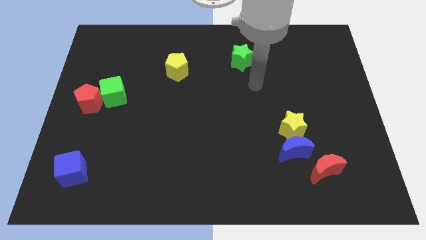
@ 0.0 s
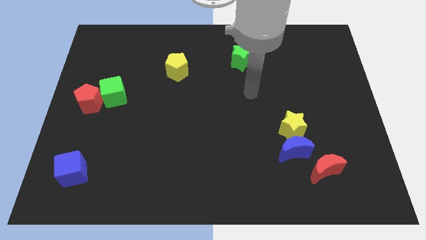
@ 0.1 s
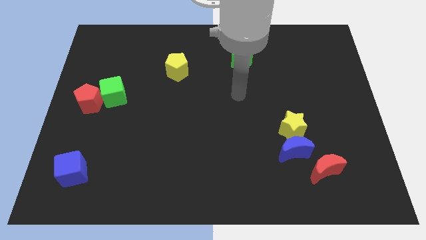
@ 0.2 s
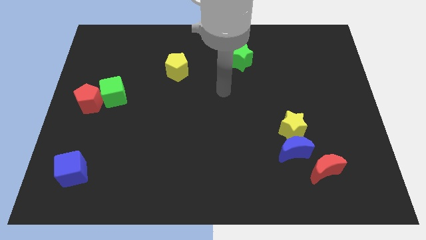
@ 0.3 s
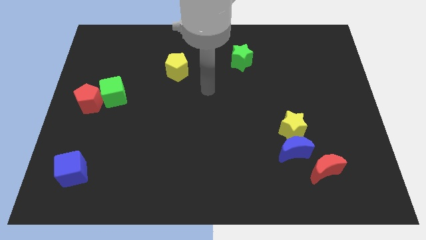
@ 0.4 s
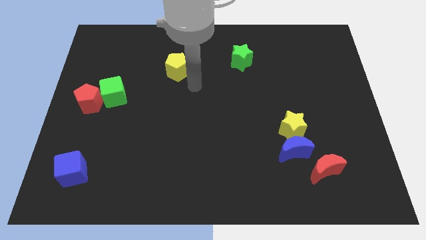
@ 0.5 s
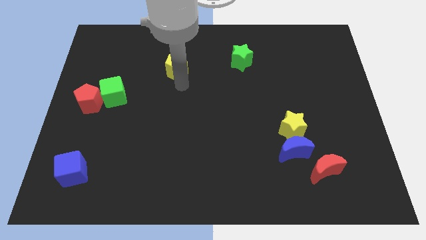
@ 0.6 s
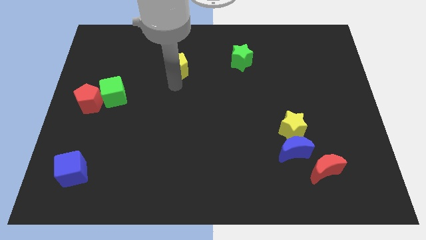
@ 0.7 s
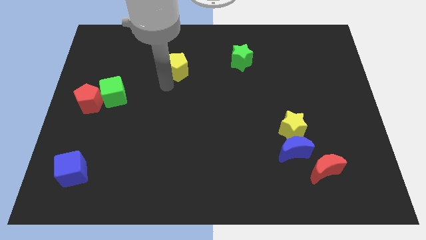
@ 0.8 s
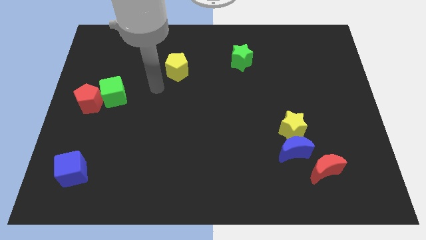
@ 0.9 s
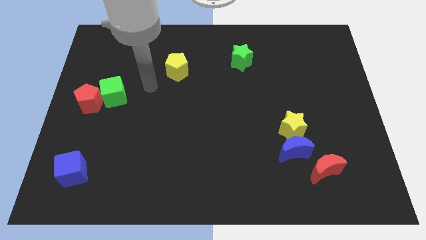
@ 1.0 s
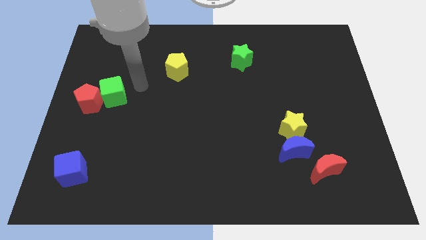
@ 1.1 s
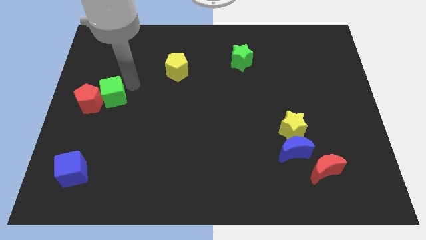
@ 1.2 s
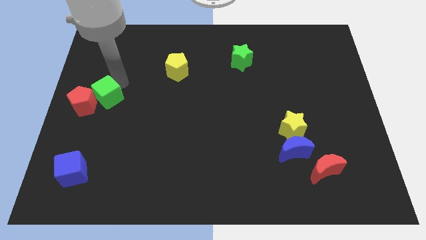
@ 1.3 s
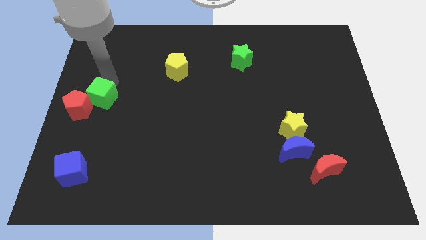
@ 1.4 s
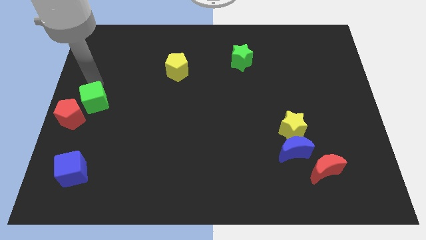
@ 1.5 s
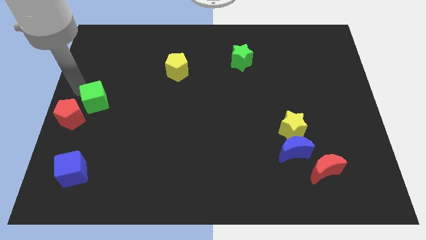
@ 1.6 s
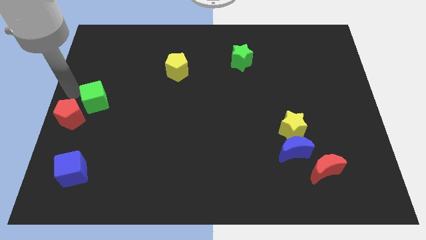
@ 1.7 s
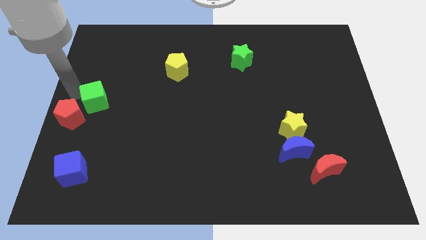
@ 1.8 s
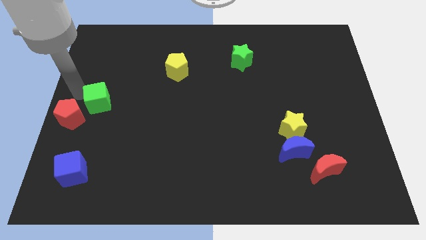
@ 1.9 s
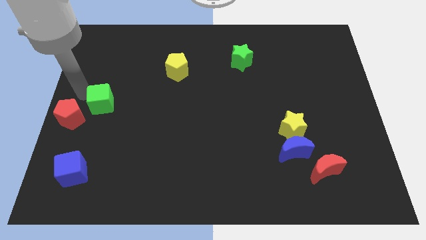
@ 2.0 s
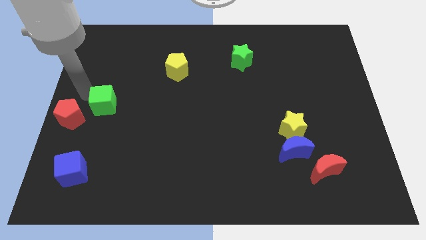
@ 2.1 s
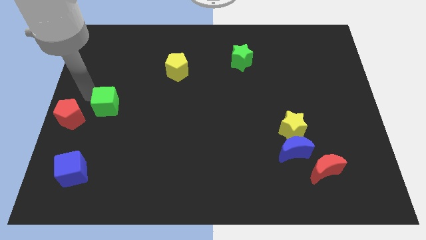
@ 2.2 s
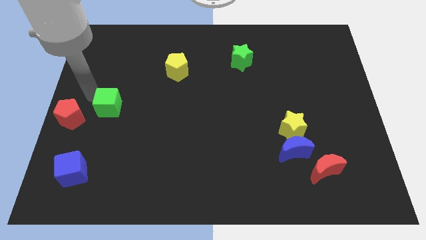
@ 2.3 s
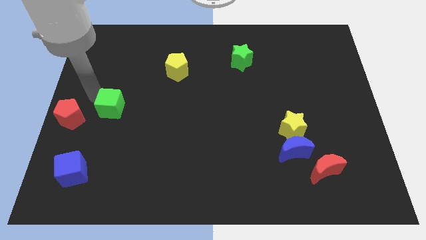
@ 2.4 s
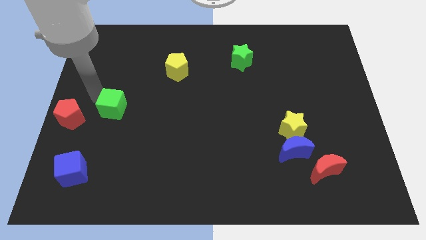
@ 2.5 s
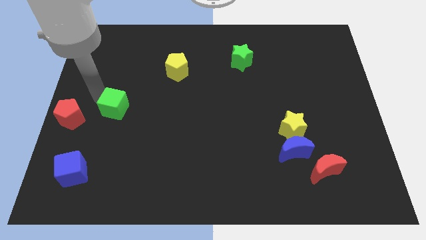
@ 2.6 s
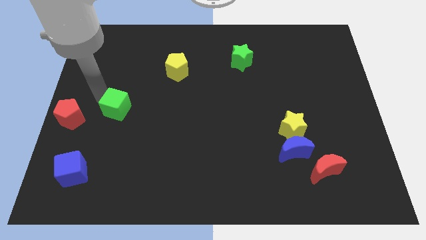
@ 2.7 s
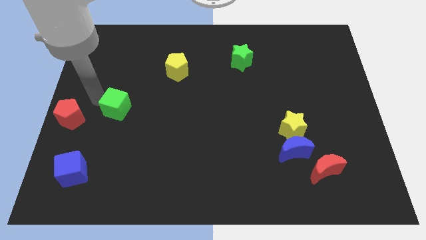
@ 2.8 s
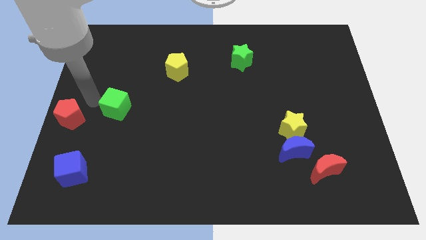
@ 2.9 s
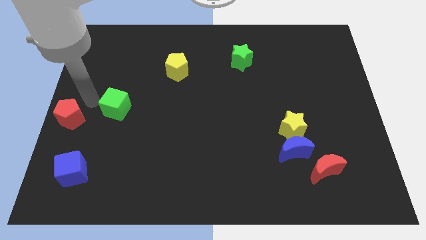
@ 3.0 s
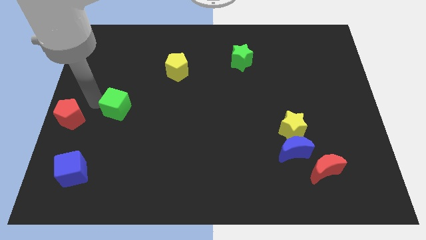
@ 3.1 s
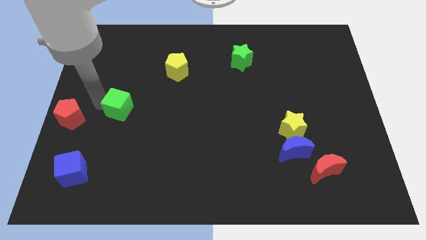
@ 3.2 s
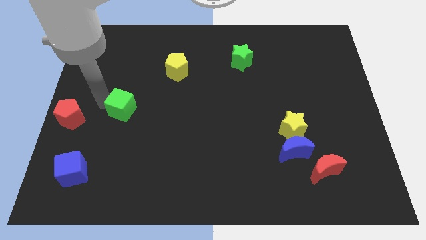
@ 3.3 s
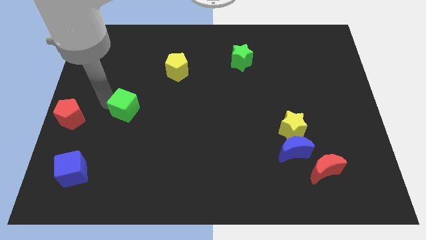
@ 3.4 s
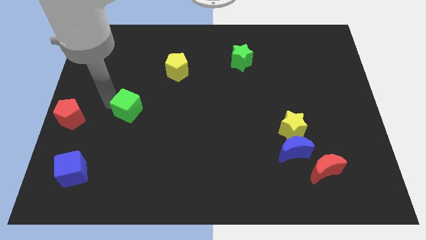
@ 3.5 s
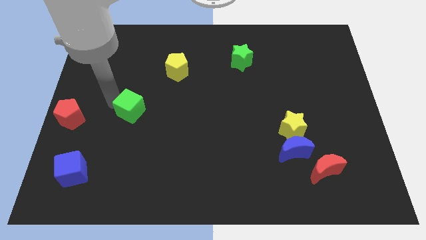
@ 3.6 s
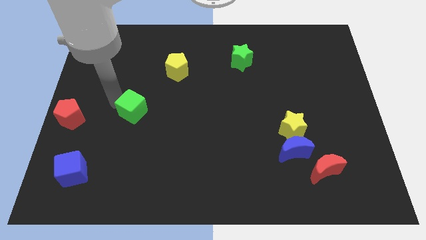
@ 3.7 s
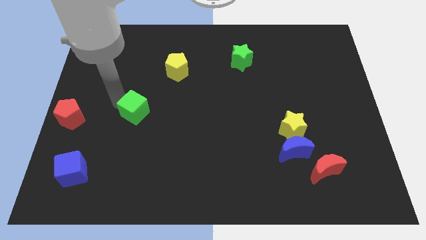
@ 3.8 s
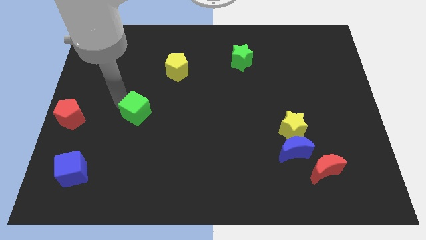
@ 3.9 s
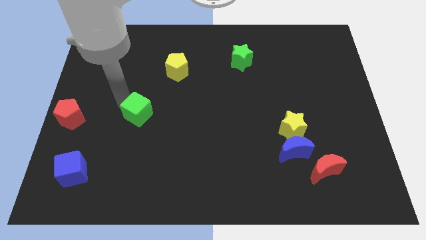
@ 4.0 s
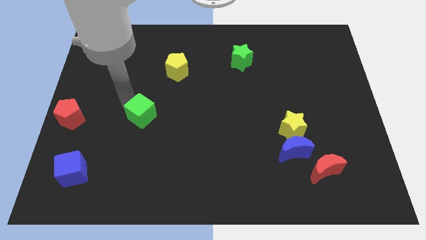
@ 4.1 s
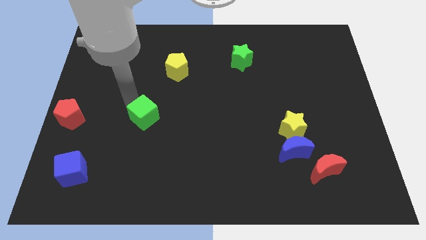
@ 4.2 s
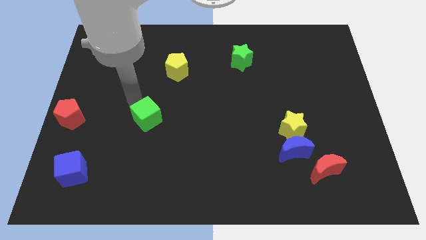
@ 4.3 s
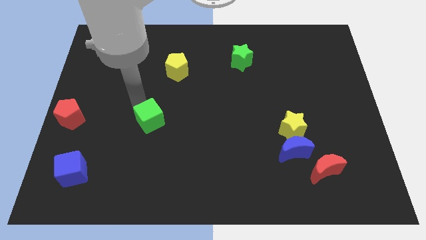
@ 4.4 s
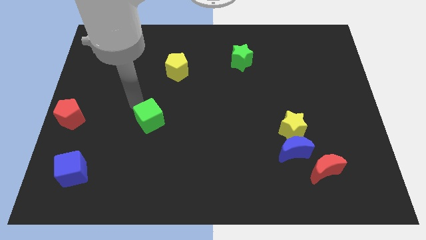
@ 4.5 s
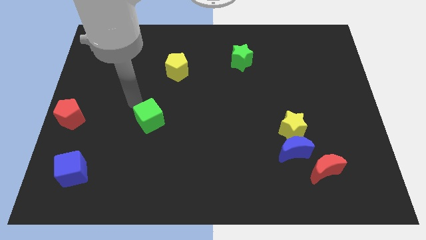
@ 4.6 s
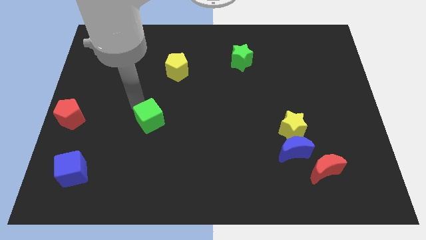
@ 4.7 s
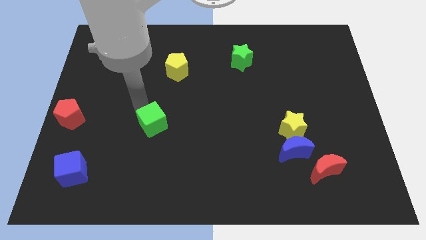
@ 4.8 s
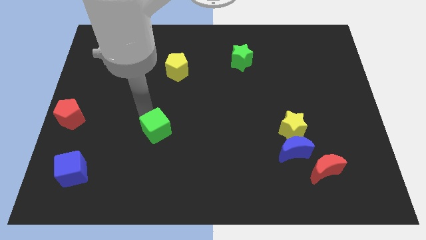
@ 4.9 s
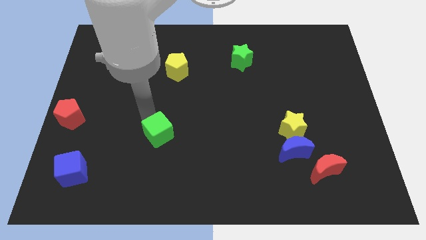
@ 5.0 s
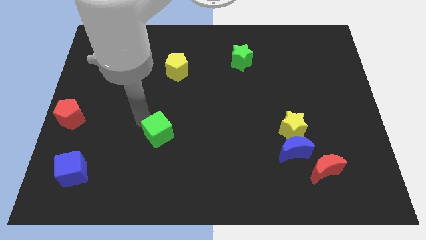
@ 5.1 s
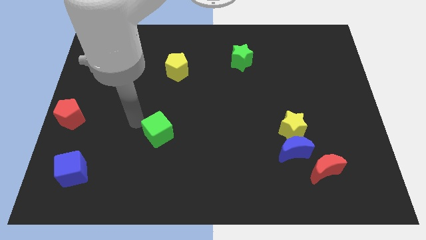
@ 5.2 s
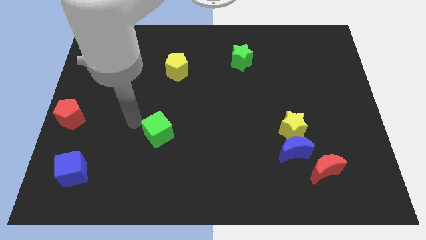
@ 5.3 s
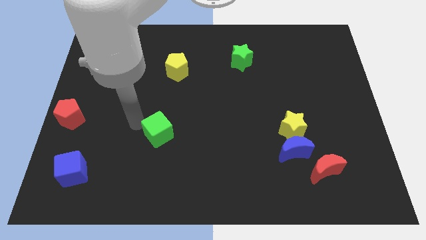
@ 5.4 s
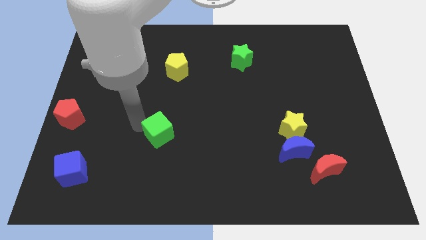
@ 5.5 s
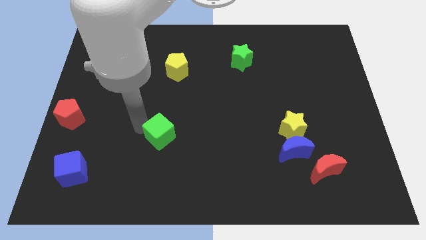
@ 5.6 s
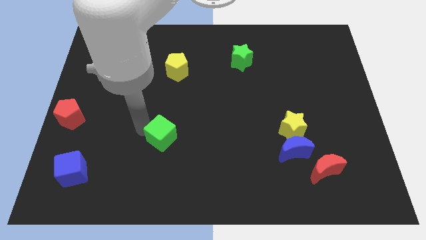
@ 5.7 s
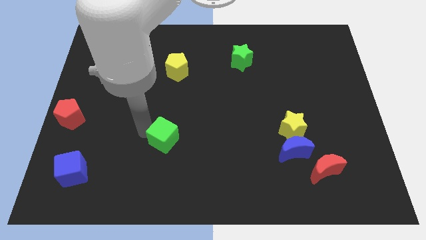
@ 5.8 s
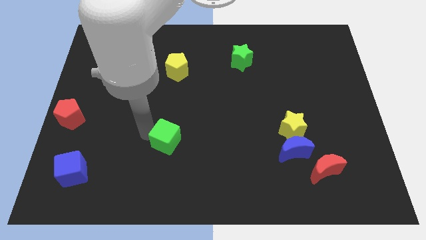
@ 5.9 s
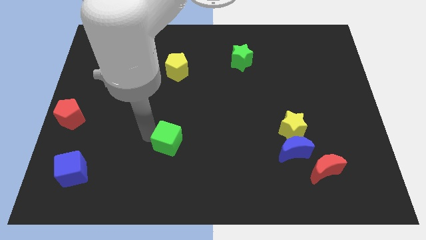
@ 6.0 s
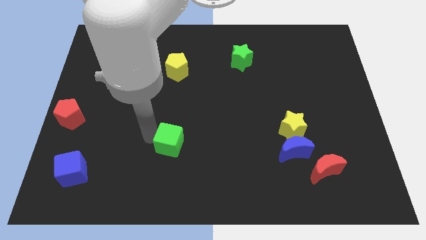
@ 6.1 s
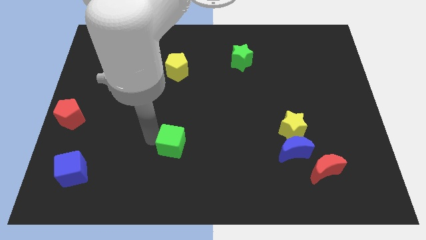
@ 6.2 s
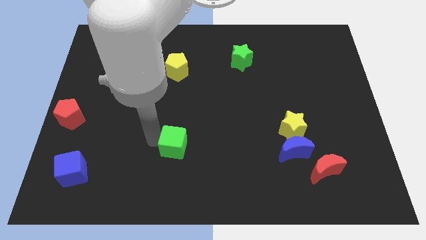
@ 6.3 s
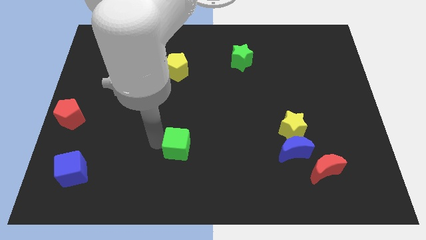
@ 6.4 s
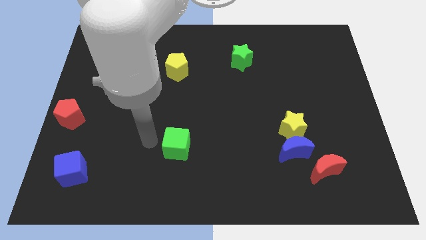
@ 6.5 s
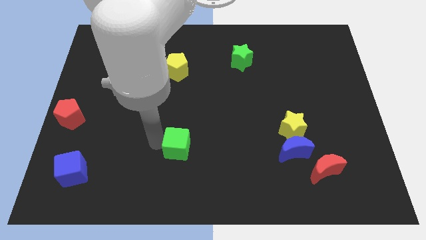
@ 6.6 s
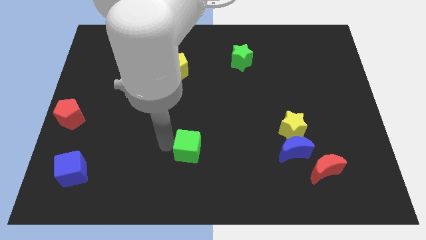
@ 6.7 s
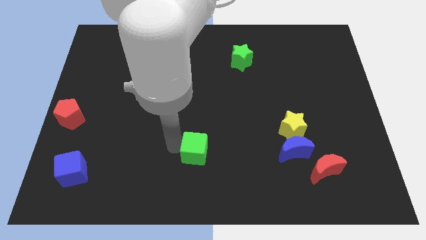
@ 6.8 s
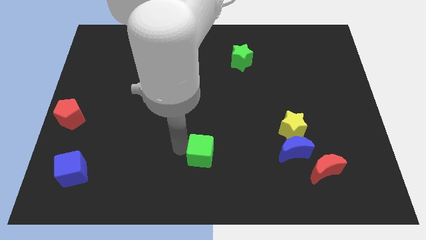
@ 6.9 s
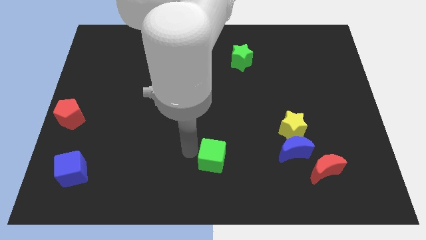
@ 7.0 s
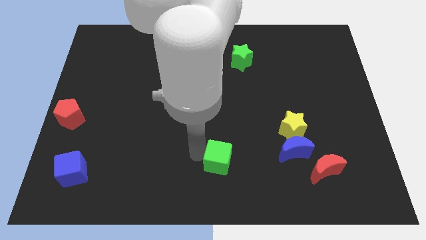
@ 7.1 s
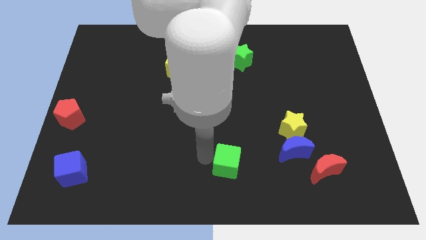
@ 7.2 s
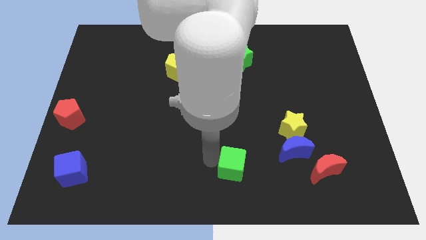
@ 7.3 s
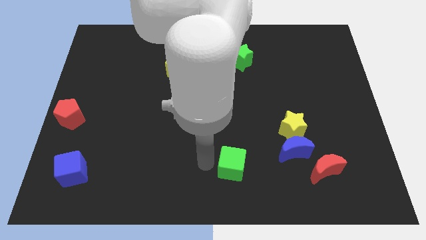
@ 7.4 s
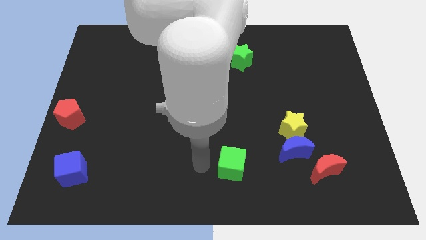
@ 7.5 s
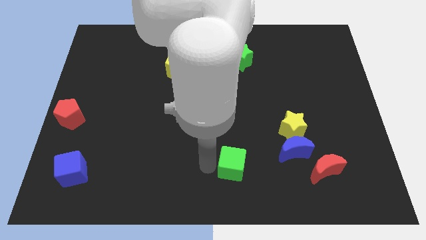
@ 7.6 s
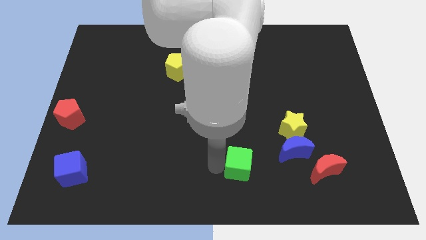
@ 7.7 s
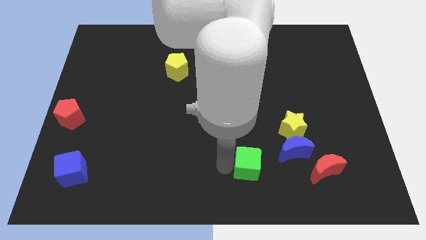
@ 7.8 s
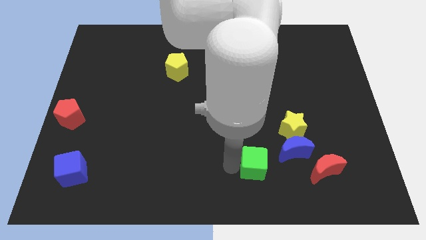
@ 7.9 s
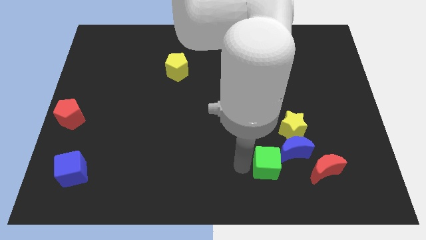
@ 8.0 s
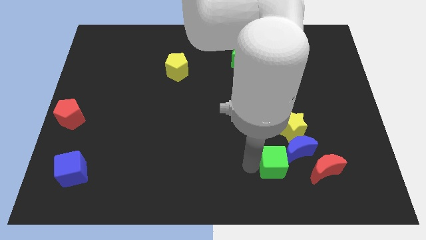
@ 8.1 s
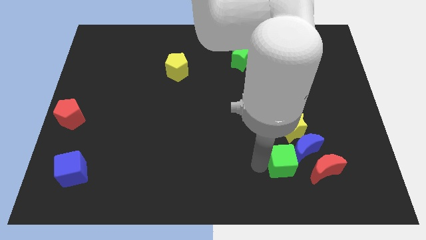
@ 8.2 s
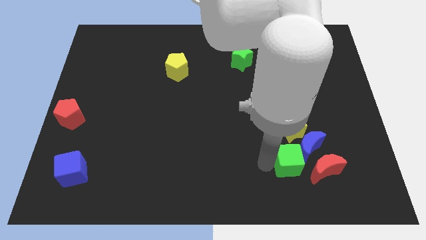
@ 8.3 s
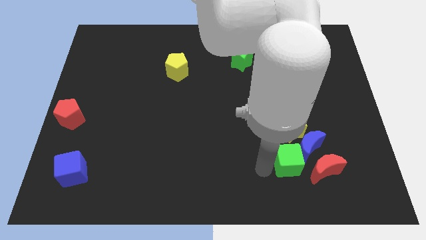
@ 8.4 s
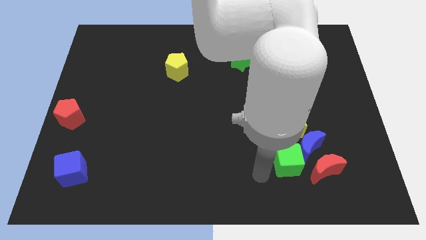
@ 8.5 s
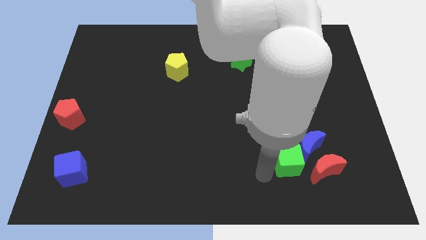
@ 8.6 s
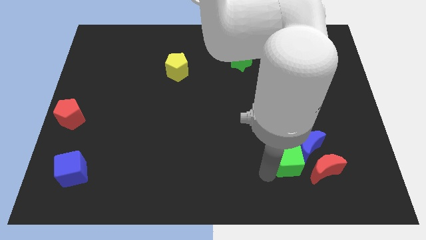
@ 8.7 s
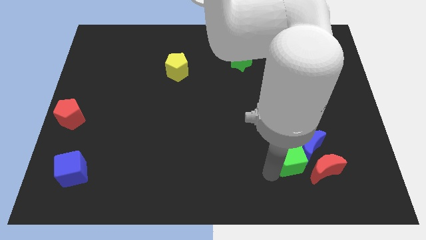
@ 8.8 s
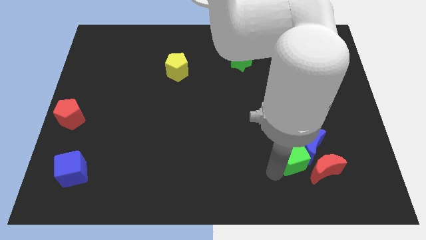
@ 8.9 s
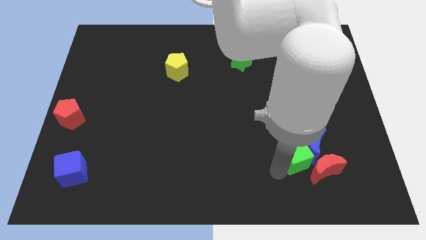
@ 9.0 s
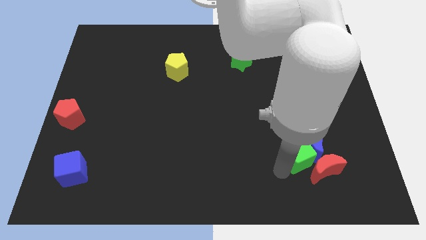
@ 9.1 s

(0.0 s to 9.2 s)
slide the green cube to the bottom right of the yellow star
